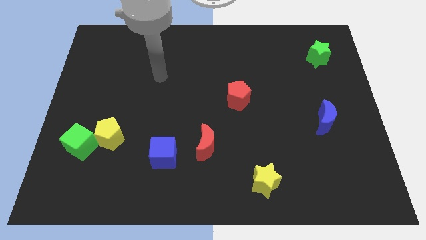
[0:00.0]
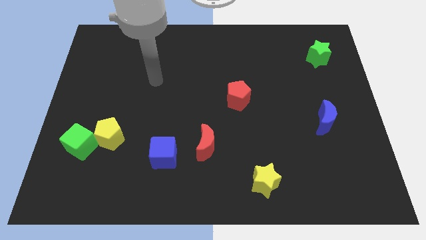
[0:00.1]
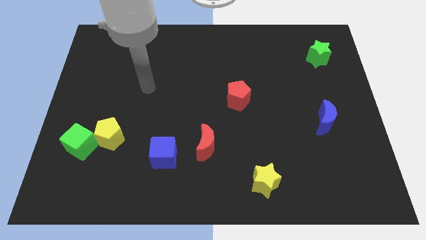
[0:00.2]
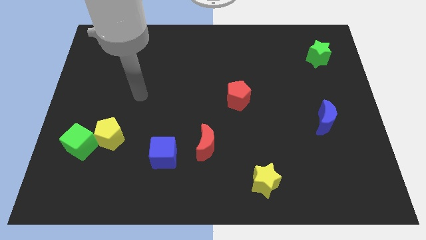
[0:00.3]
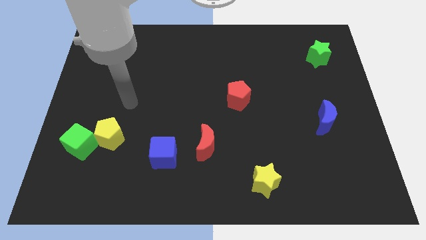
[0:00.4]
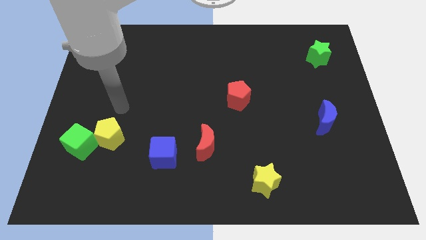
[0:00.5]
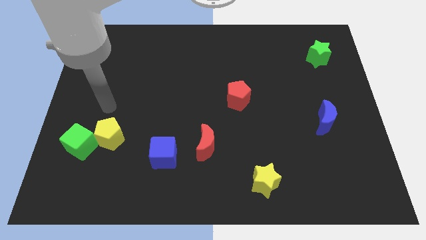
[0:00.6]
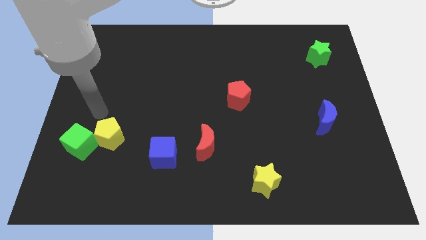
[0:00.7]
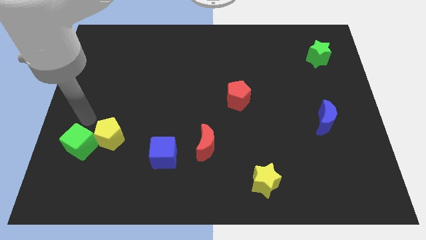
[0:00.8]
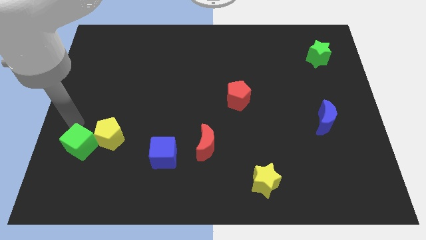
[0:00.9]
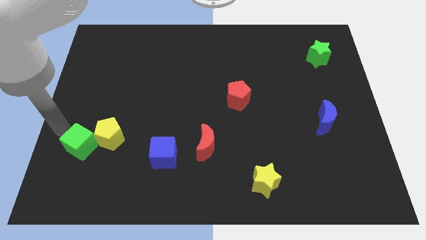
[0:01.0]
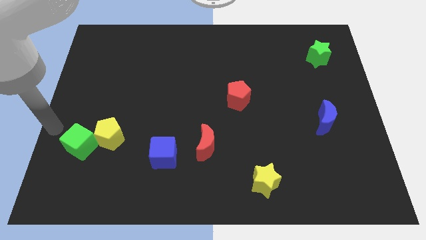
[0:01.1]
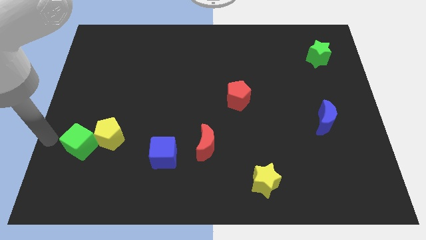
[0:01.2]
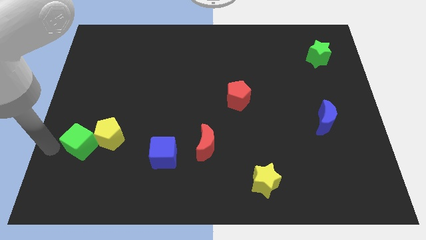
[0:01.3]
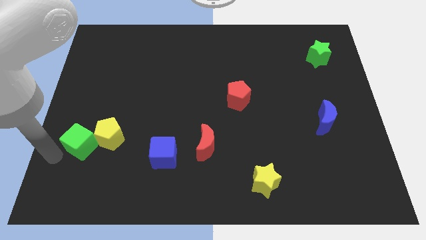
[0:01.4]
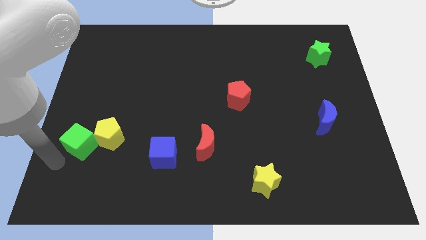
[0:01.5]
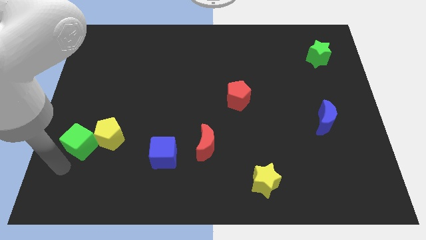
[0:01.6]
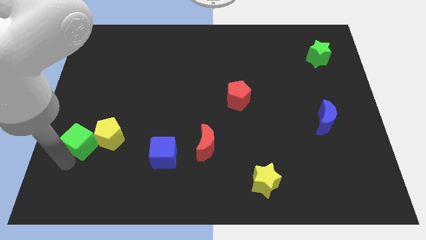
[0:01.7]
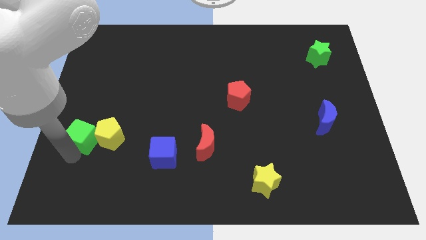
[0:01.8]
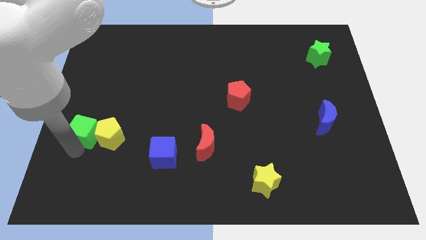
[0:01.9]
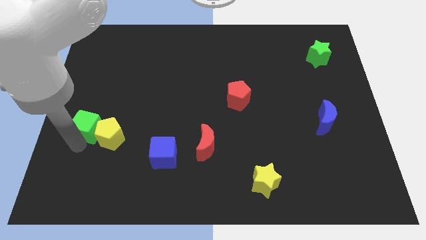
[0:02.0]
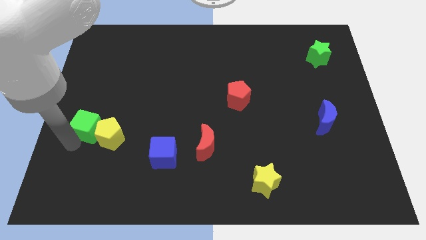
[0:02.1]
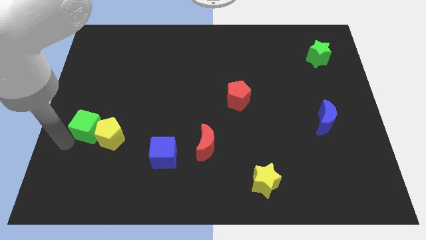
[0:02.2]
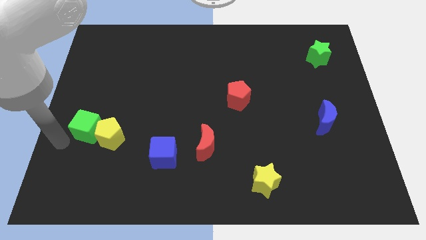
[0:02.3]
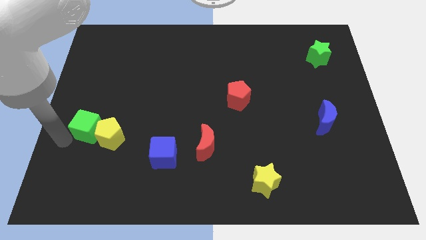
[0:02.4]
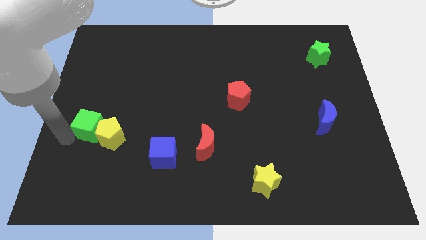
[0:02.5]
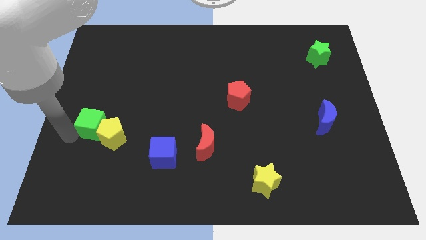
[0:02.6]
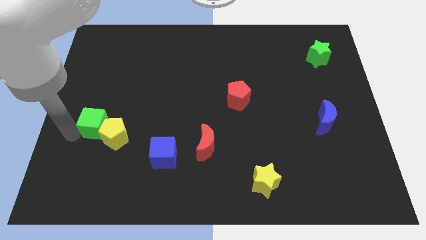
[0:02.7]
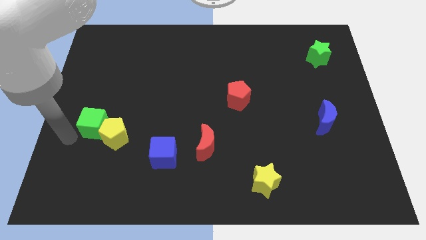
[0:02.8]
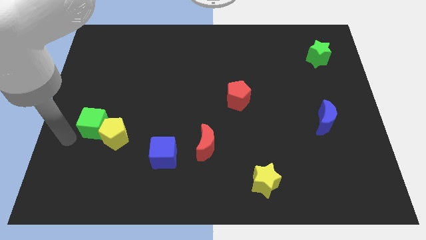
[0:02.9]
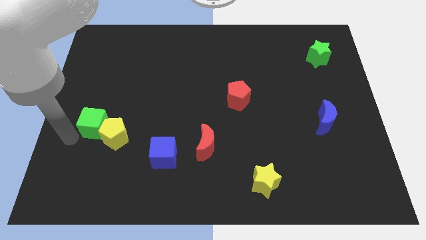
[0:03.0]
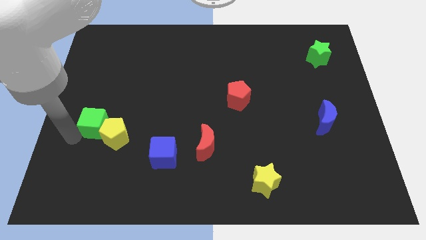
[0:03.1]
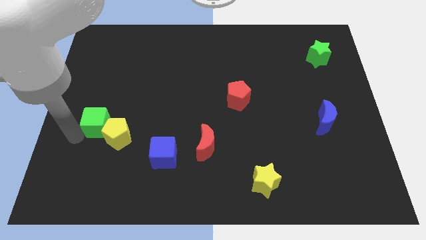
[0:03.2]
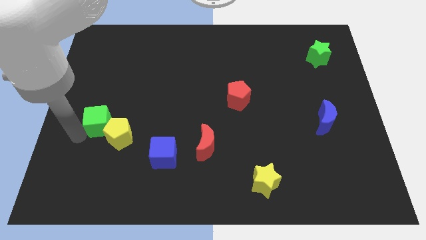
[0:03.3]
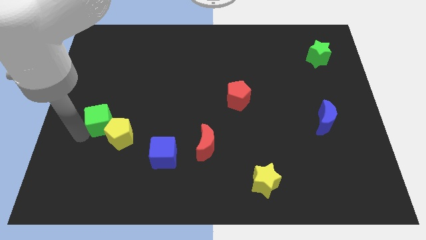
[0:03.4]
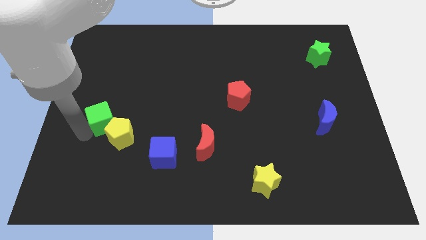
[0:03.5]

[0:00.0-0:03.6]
slightly slide the green cube up and to the right diagonally

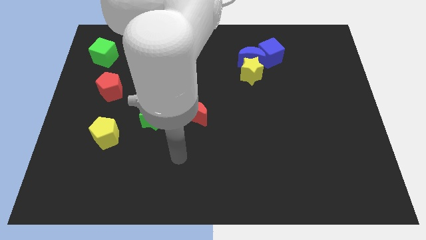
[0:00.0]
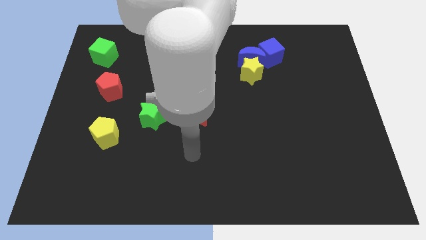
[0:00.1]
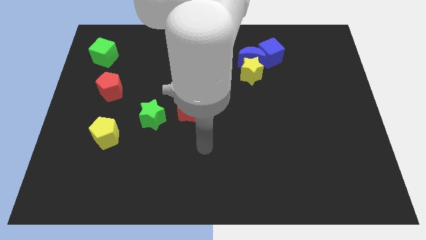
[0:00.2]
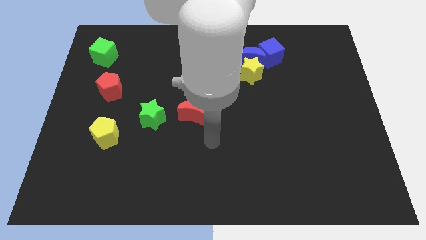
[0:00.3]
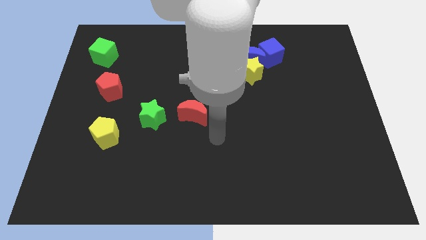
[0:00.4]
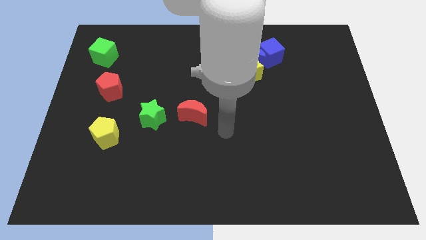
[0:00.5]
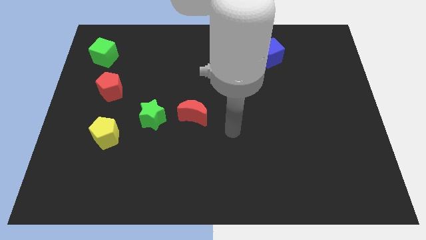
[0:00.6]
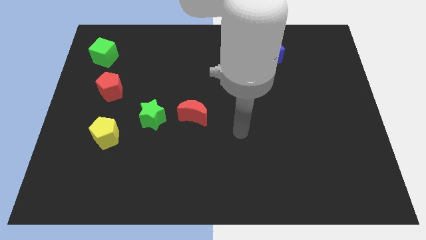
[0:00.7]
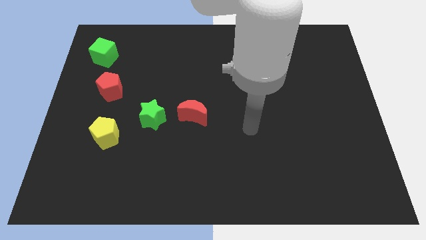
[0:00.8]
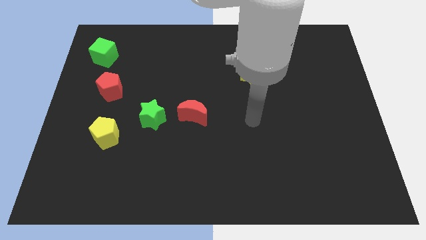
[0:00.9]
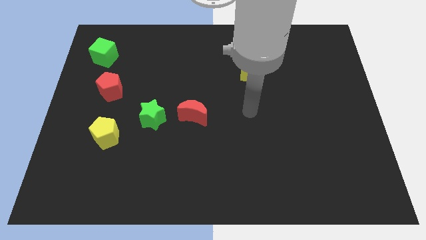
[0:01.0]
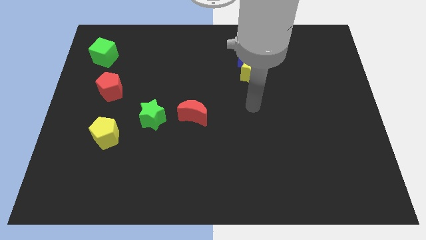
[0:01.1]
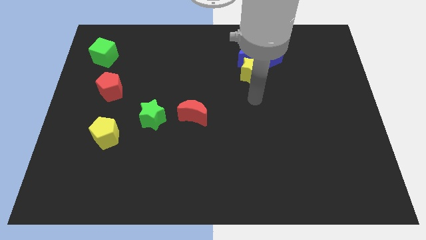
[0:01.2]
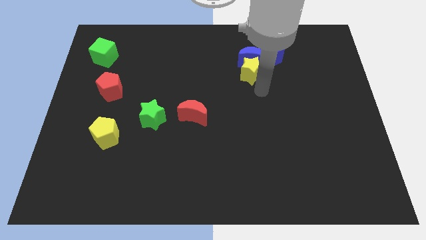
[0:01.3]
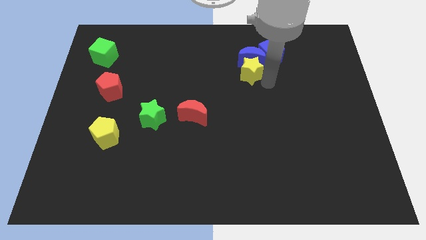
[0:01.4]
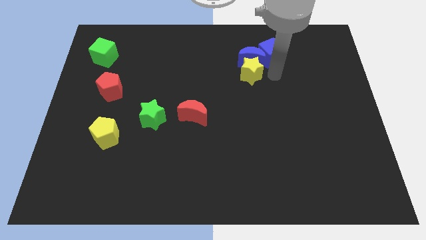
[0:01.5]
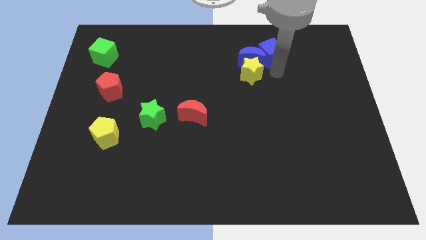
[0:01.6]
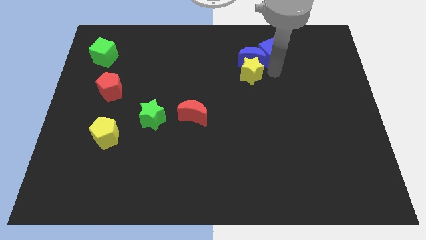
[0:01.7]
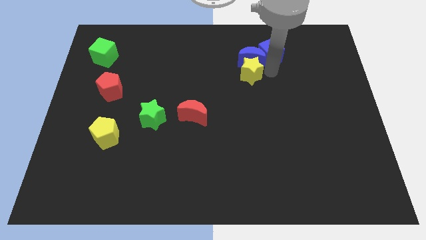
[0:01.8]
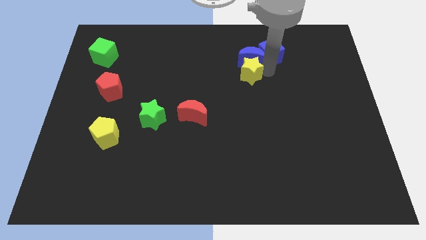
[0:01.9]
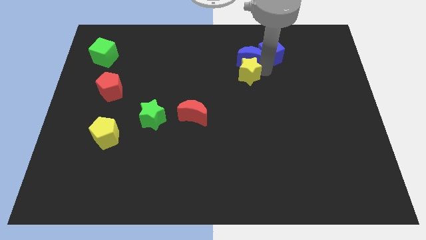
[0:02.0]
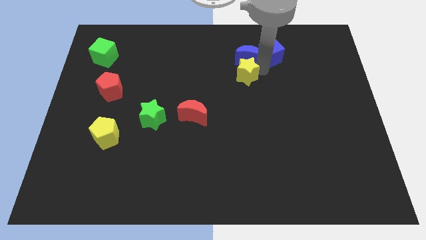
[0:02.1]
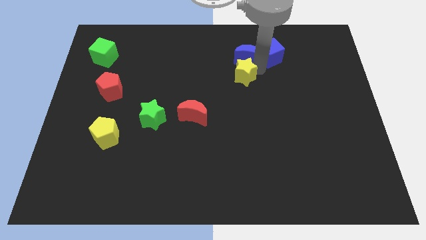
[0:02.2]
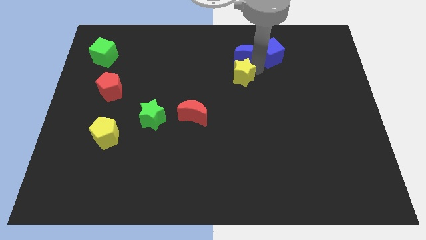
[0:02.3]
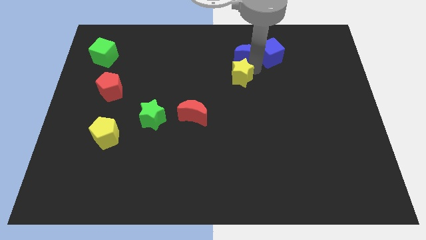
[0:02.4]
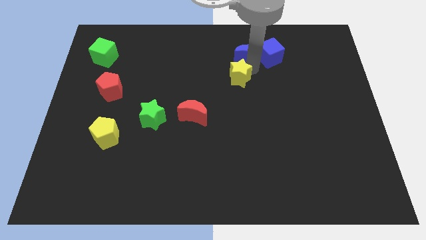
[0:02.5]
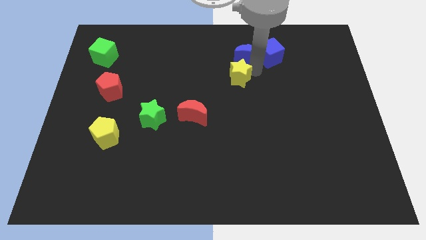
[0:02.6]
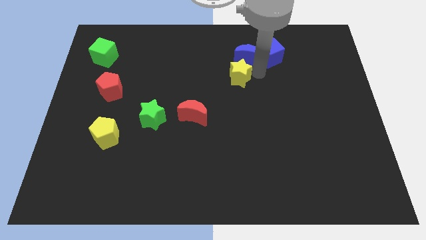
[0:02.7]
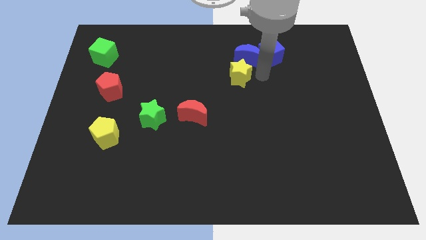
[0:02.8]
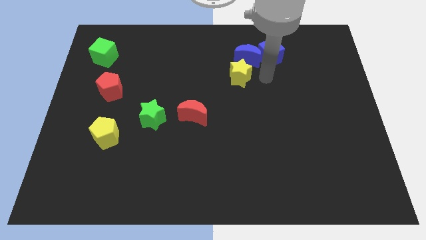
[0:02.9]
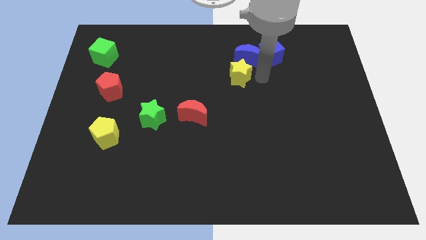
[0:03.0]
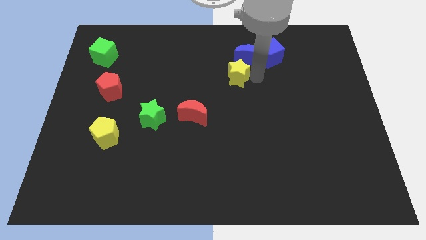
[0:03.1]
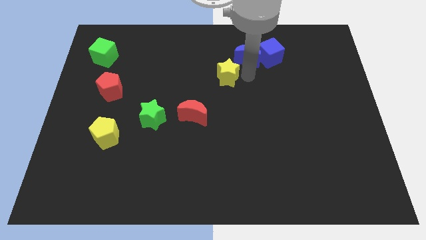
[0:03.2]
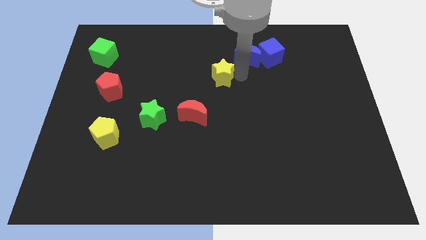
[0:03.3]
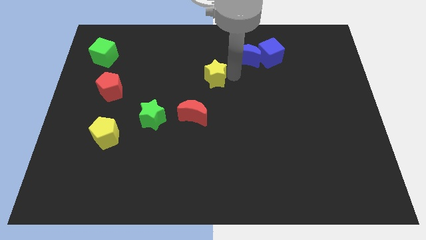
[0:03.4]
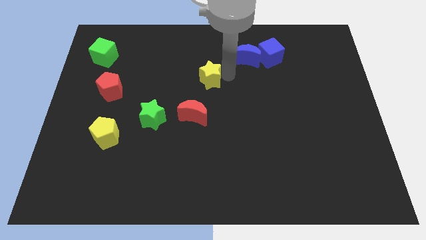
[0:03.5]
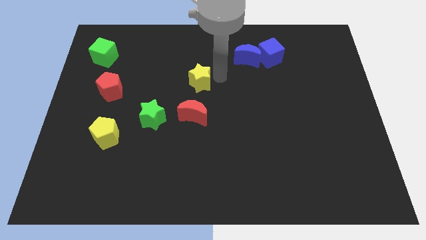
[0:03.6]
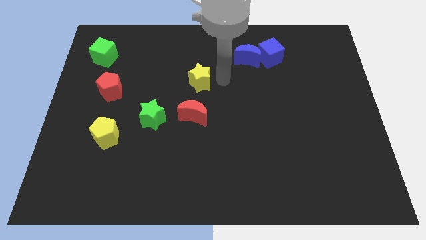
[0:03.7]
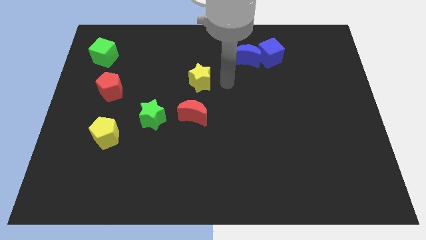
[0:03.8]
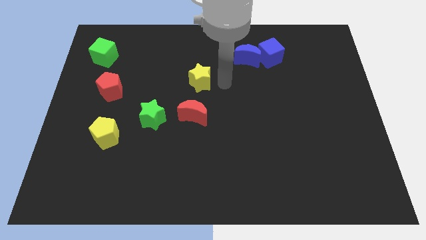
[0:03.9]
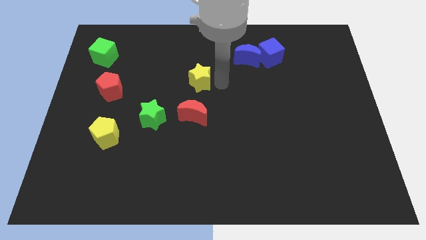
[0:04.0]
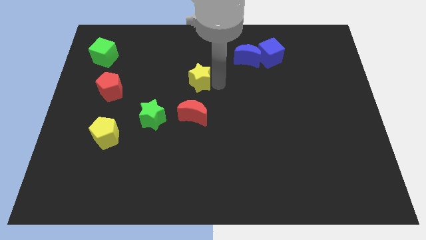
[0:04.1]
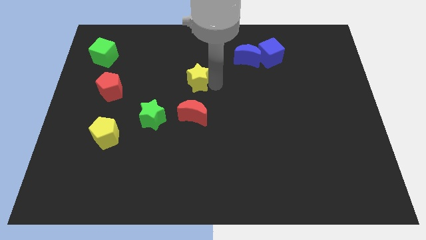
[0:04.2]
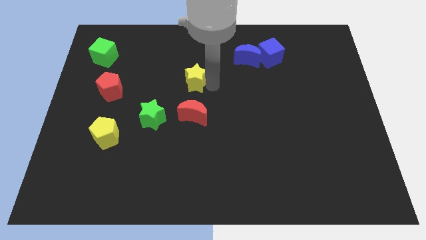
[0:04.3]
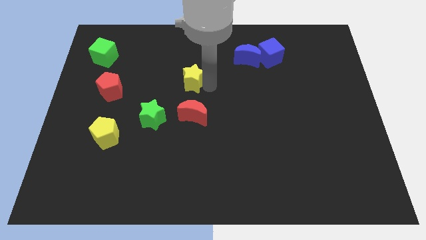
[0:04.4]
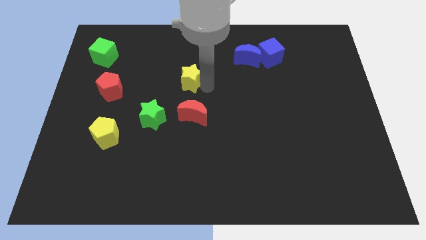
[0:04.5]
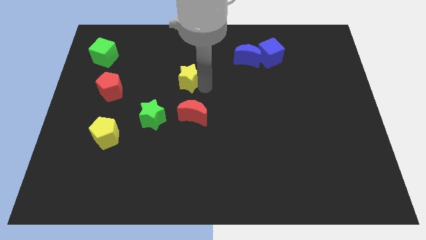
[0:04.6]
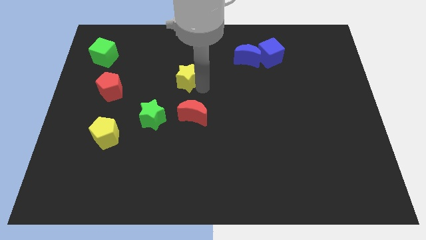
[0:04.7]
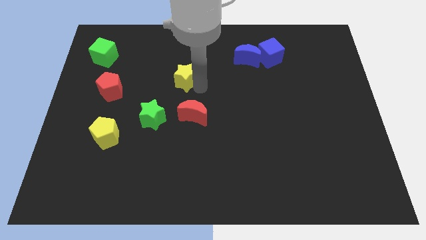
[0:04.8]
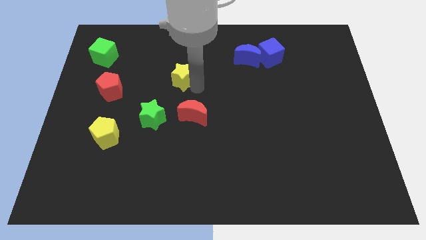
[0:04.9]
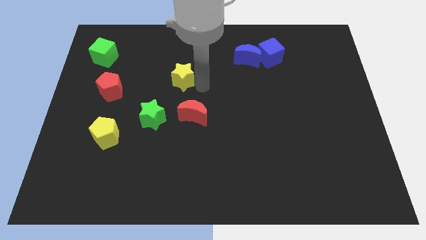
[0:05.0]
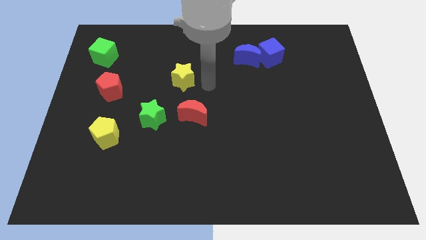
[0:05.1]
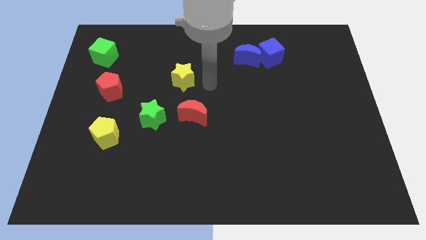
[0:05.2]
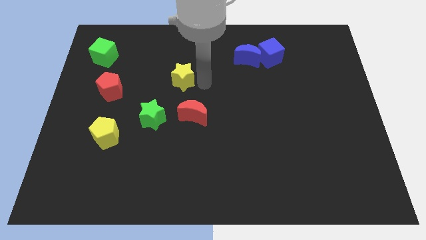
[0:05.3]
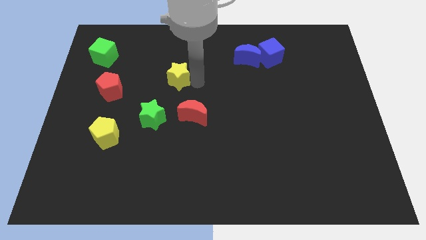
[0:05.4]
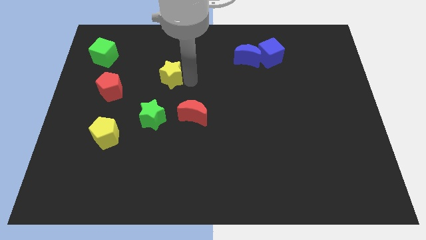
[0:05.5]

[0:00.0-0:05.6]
slide the yellow star to the left
